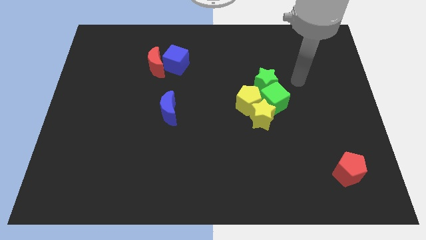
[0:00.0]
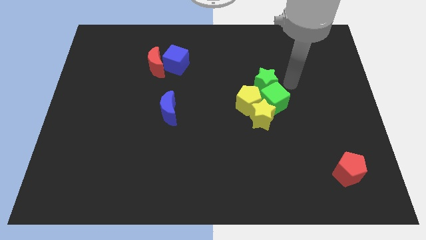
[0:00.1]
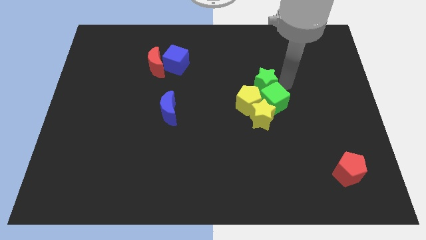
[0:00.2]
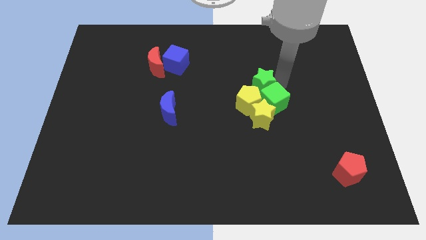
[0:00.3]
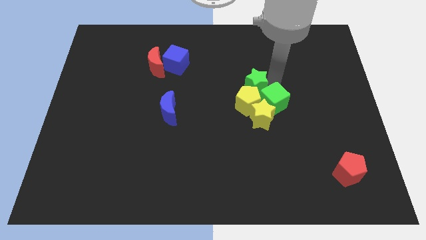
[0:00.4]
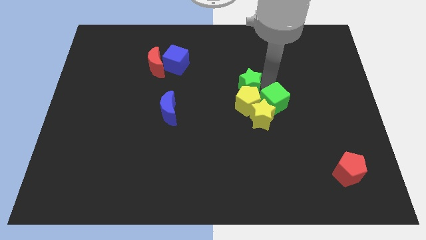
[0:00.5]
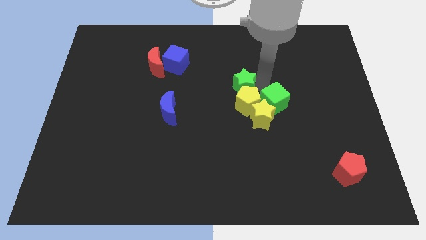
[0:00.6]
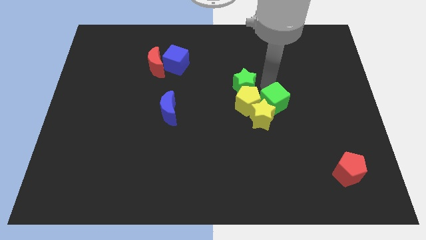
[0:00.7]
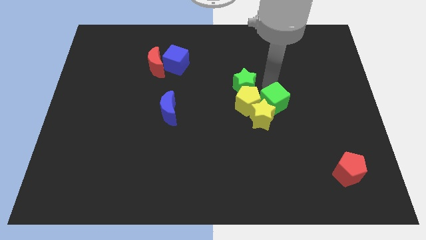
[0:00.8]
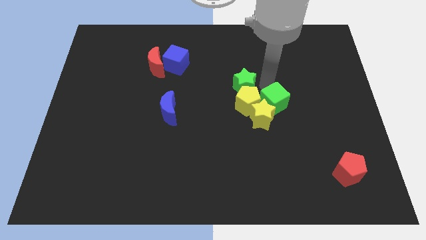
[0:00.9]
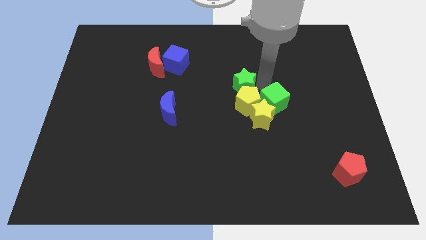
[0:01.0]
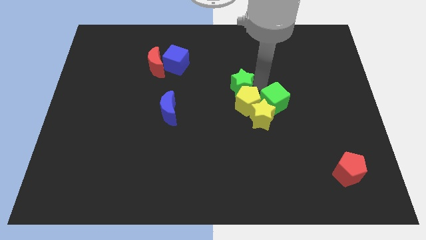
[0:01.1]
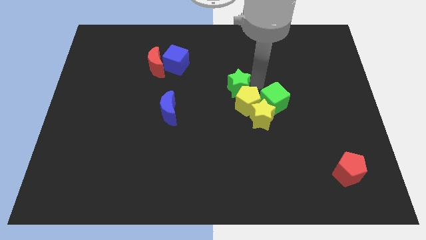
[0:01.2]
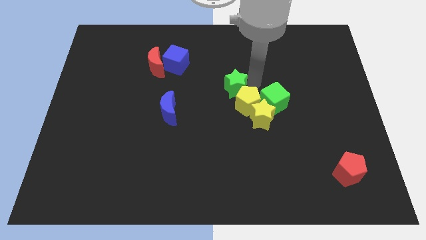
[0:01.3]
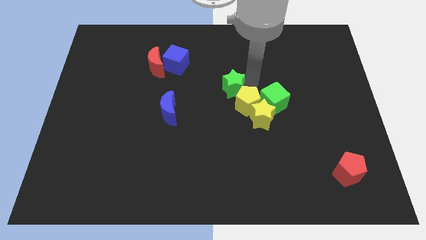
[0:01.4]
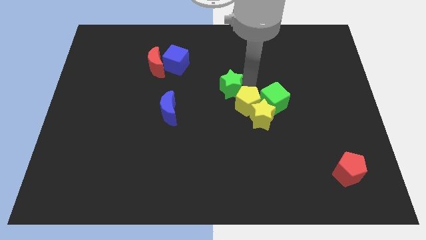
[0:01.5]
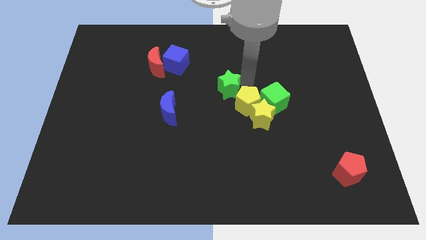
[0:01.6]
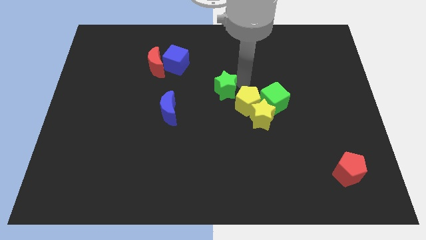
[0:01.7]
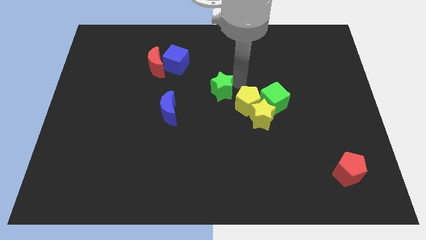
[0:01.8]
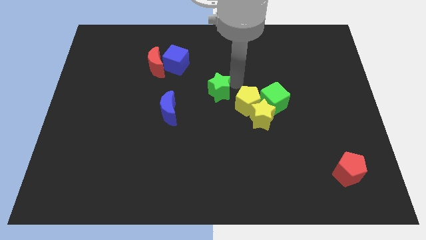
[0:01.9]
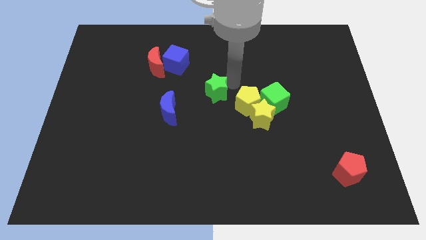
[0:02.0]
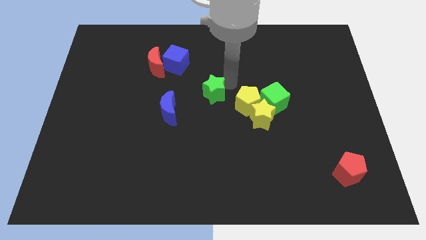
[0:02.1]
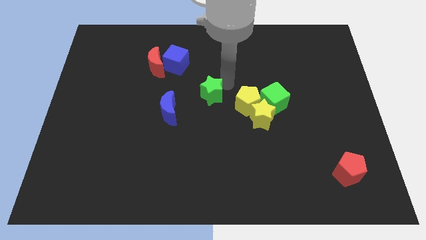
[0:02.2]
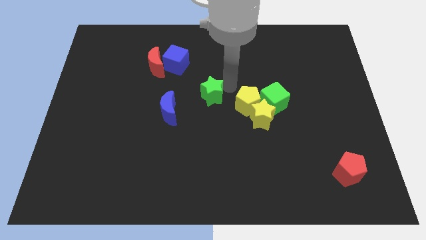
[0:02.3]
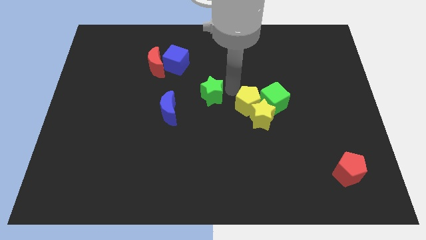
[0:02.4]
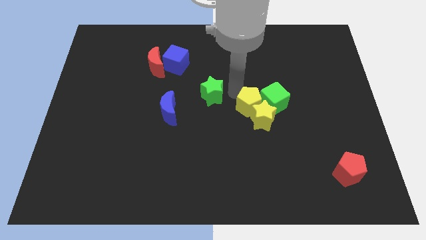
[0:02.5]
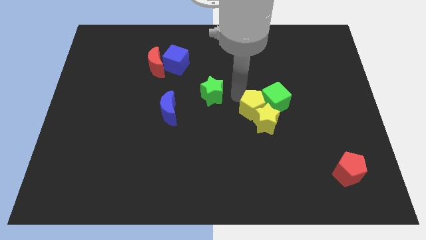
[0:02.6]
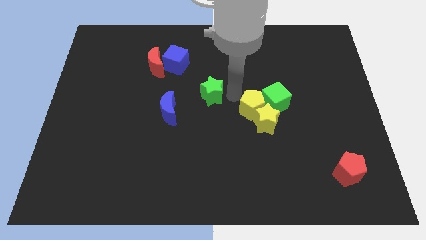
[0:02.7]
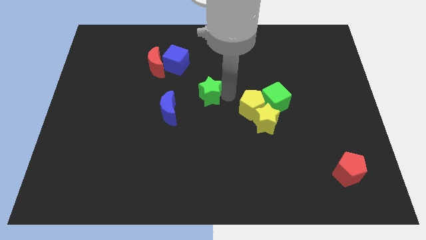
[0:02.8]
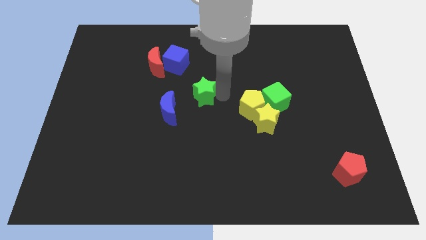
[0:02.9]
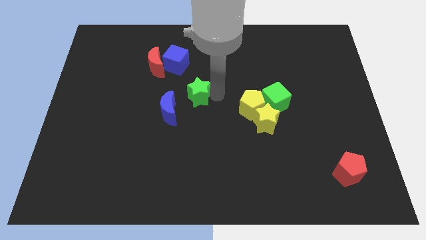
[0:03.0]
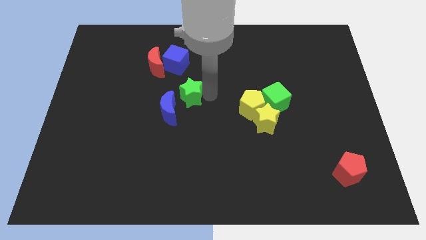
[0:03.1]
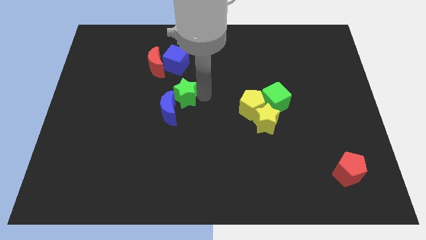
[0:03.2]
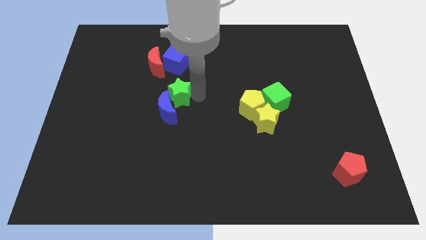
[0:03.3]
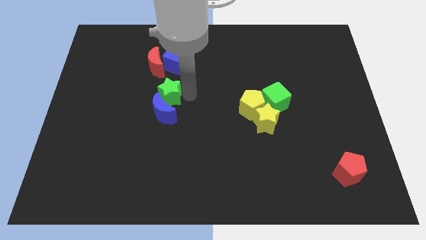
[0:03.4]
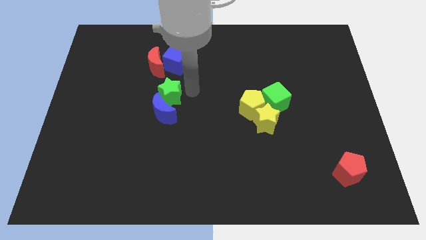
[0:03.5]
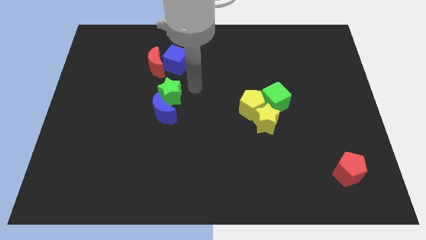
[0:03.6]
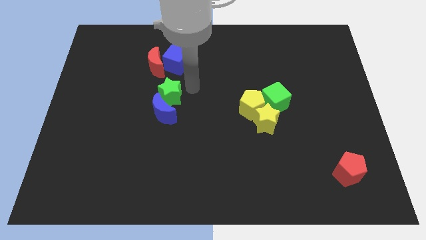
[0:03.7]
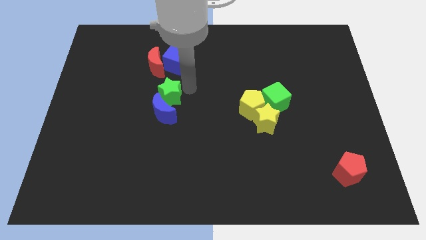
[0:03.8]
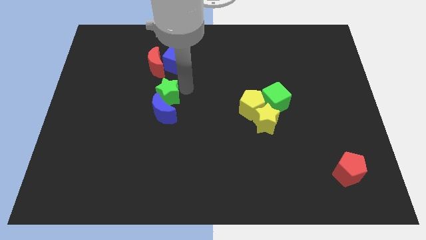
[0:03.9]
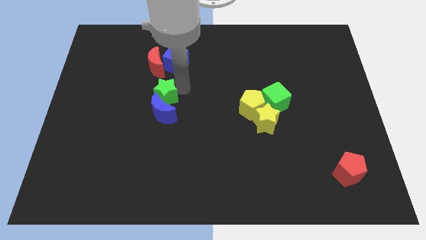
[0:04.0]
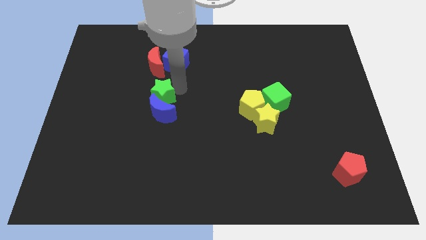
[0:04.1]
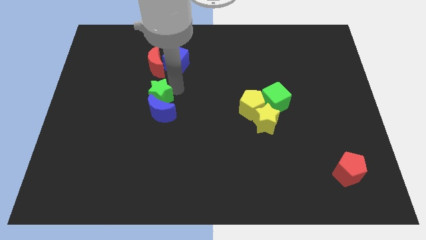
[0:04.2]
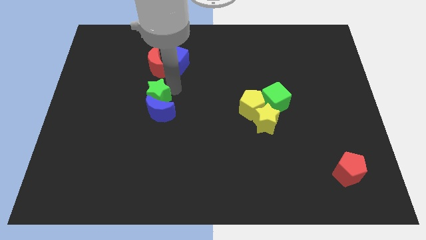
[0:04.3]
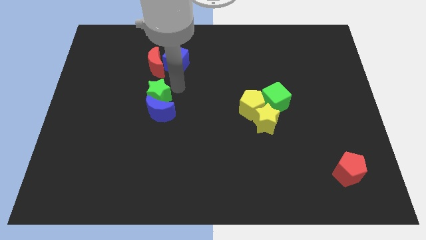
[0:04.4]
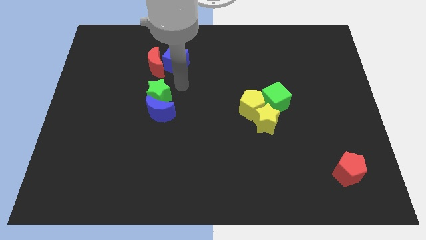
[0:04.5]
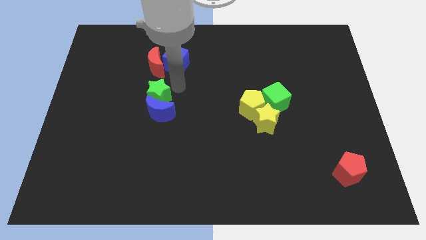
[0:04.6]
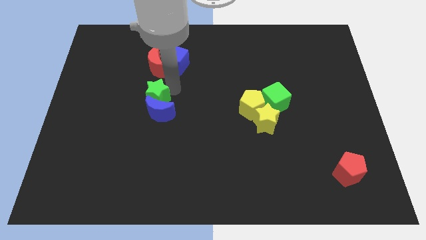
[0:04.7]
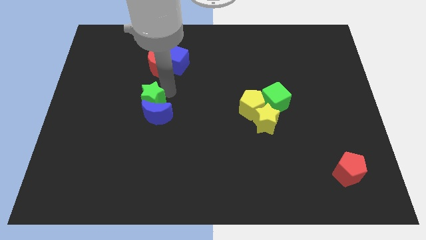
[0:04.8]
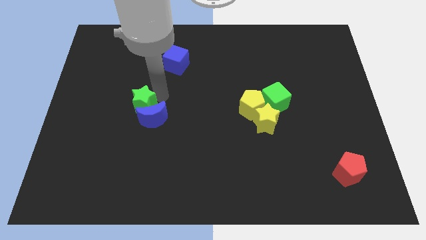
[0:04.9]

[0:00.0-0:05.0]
push the green star just left of the blue moon

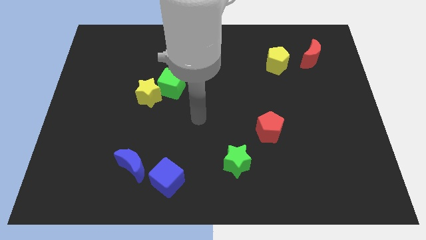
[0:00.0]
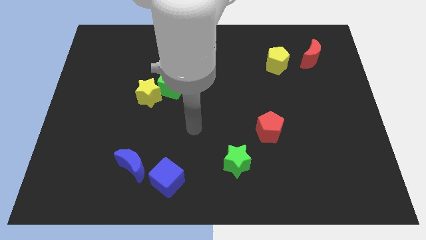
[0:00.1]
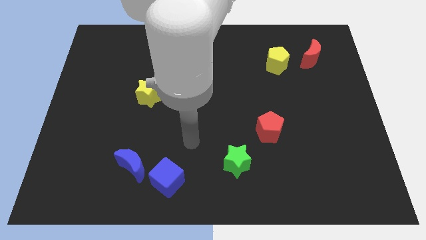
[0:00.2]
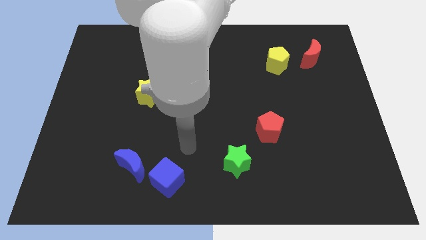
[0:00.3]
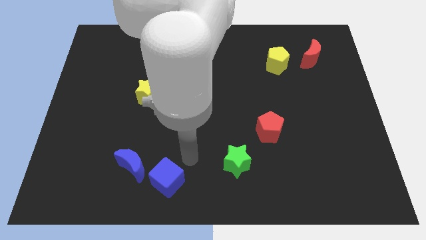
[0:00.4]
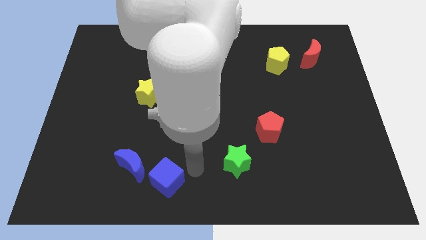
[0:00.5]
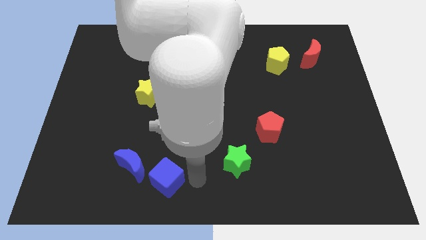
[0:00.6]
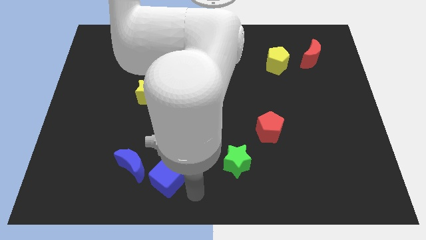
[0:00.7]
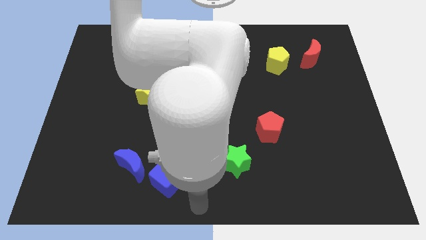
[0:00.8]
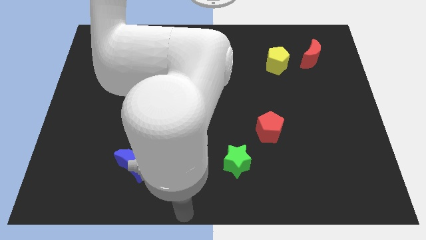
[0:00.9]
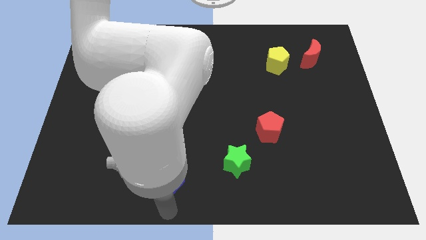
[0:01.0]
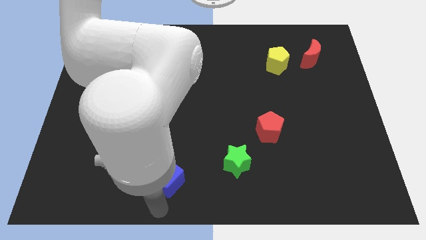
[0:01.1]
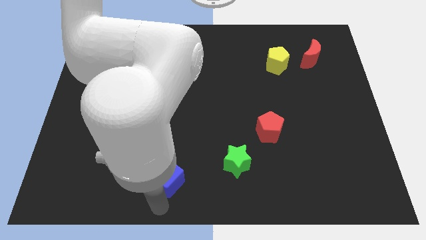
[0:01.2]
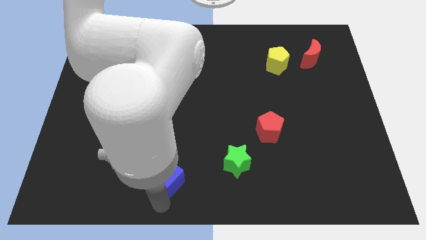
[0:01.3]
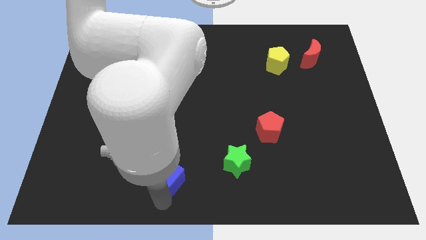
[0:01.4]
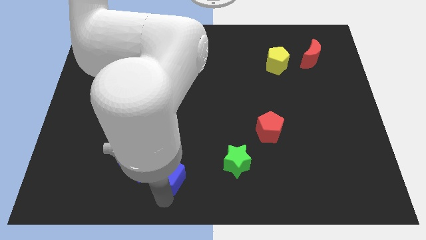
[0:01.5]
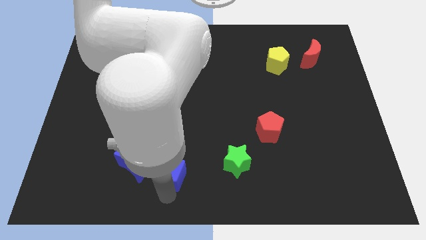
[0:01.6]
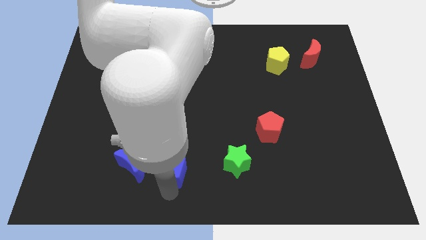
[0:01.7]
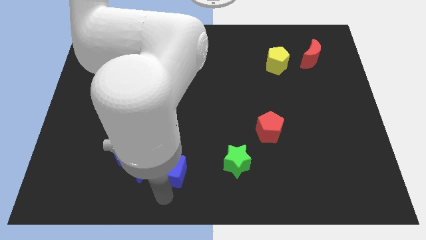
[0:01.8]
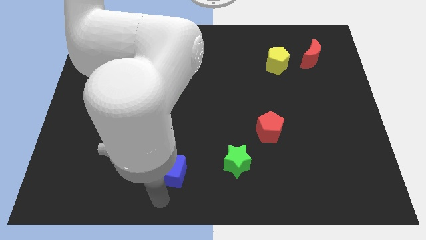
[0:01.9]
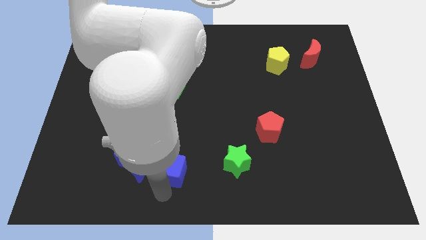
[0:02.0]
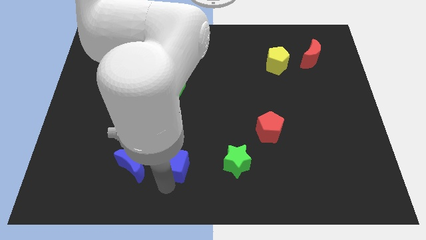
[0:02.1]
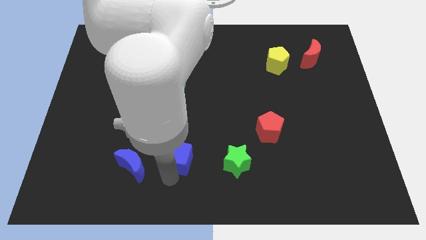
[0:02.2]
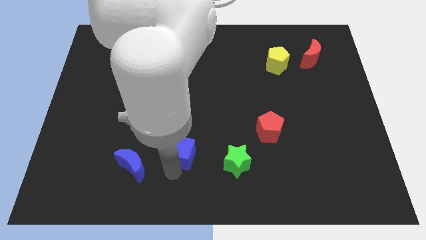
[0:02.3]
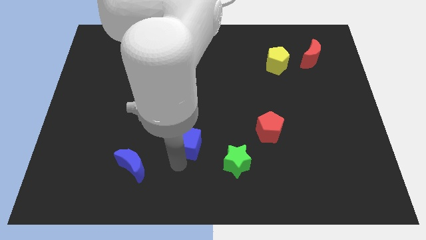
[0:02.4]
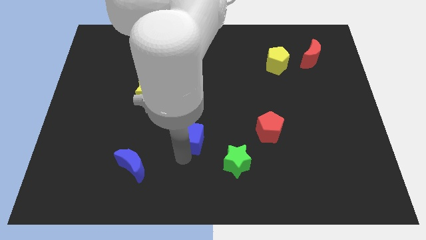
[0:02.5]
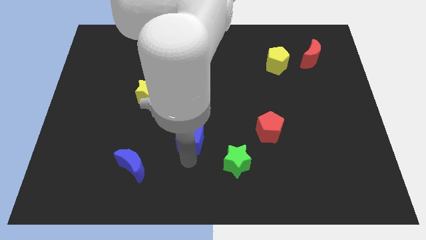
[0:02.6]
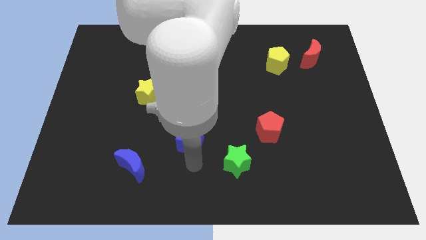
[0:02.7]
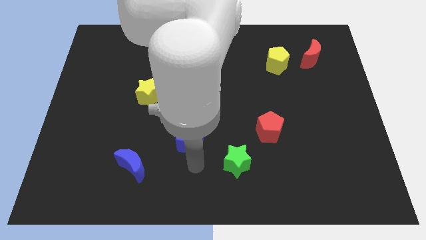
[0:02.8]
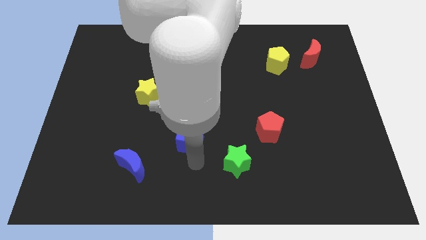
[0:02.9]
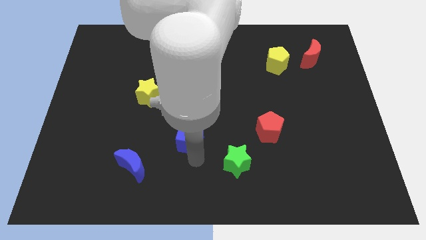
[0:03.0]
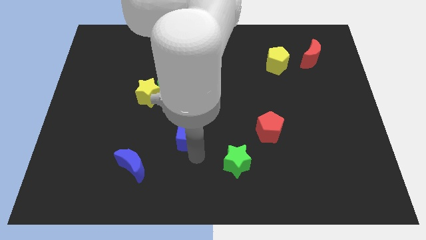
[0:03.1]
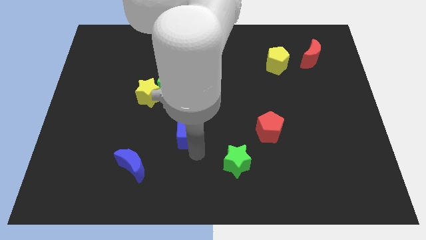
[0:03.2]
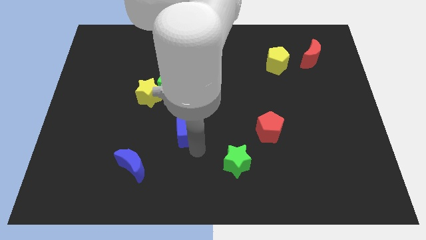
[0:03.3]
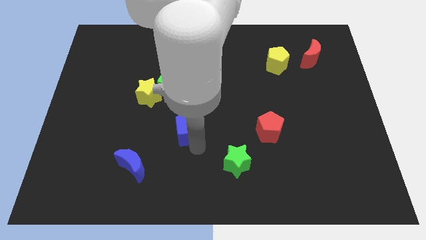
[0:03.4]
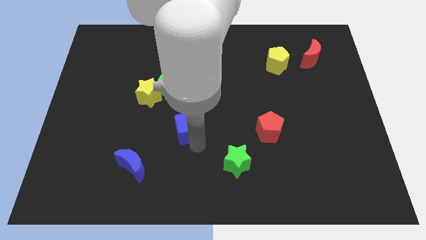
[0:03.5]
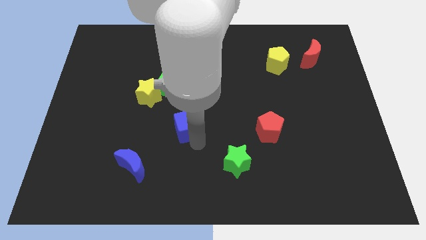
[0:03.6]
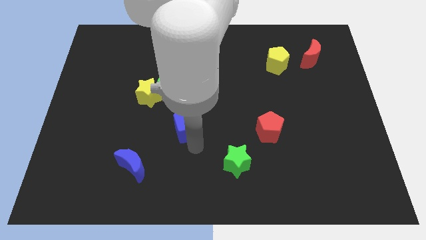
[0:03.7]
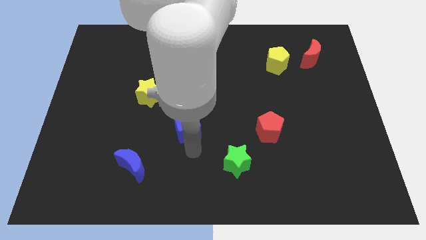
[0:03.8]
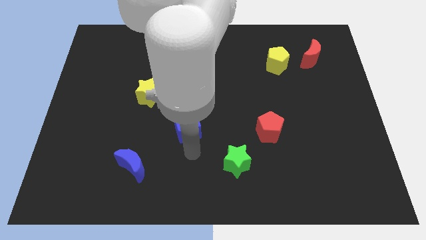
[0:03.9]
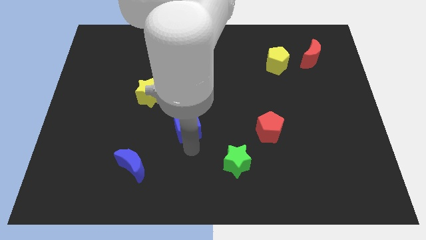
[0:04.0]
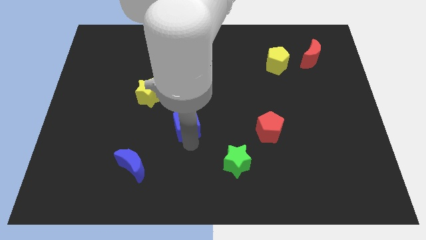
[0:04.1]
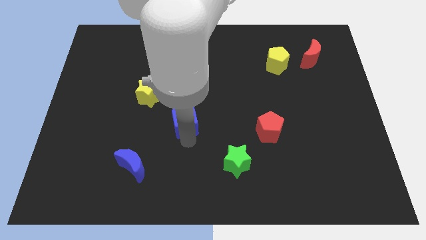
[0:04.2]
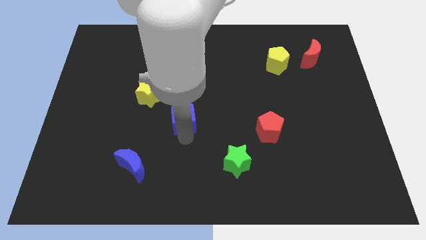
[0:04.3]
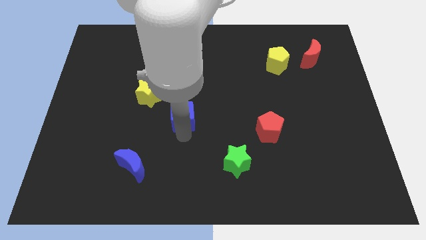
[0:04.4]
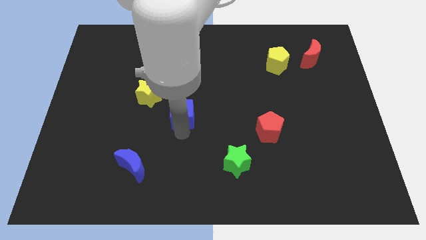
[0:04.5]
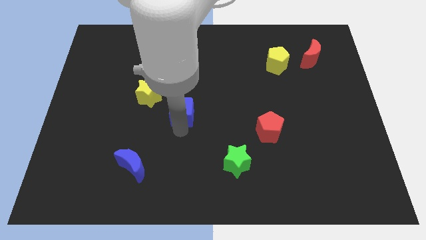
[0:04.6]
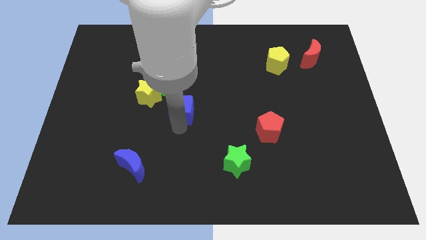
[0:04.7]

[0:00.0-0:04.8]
slide the blue cube just right of the yellow star
